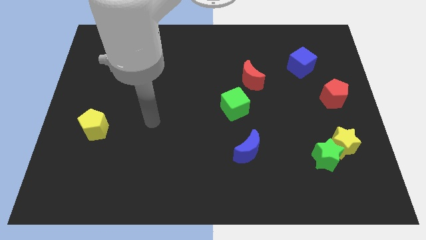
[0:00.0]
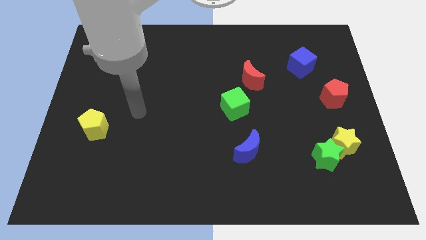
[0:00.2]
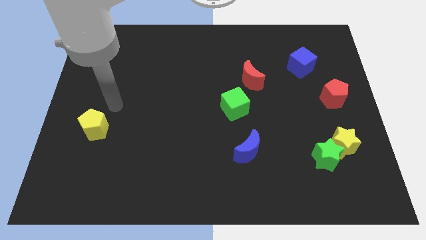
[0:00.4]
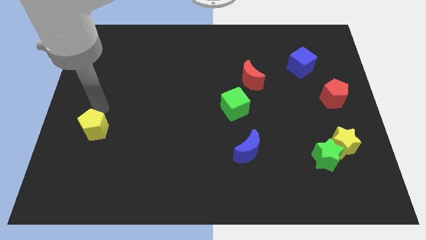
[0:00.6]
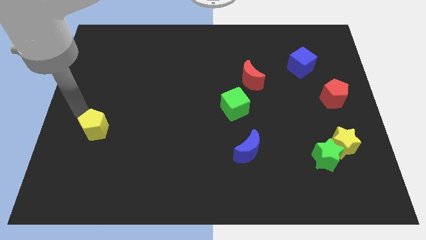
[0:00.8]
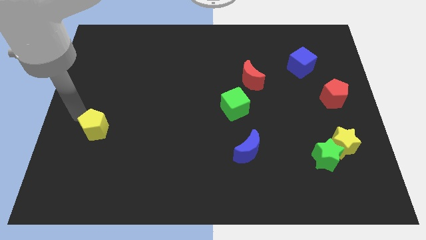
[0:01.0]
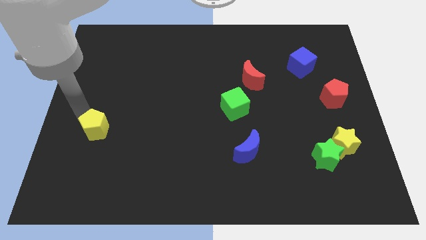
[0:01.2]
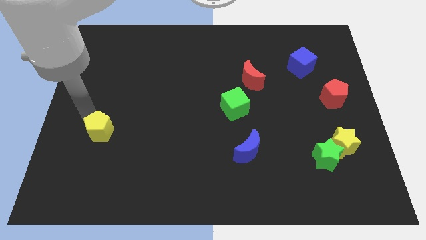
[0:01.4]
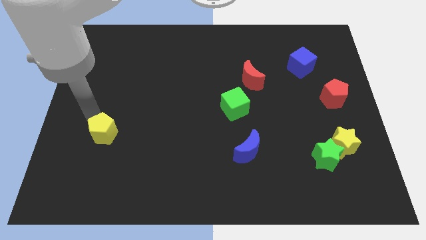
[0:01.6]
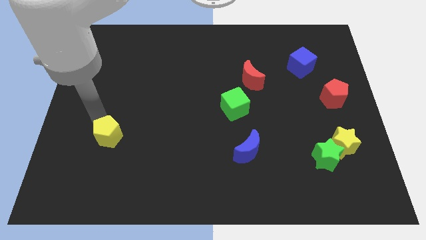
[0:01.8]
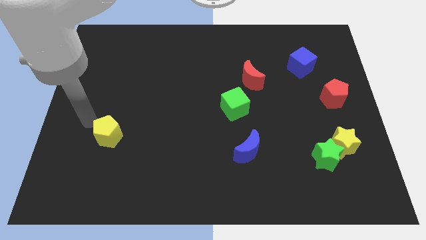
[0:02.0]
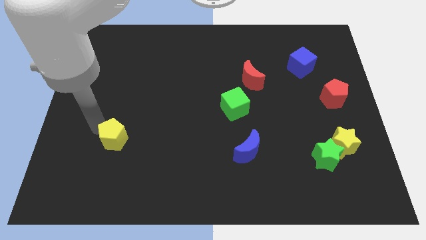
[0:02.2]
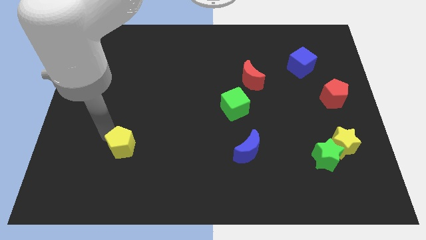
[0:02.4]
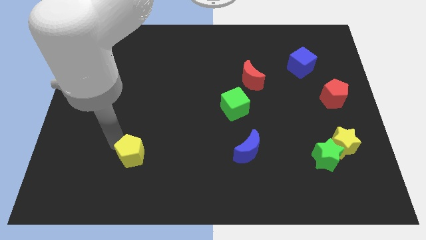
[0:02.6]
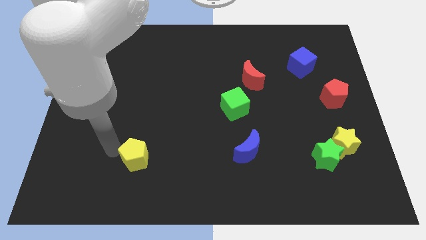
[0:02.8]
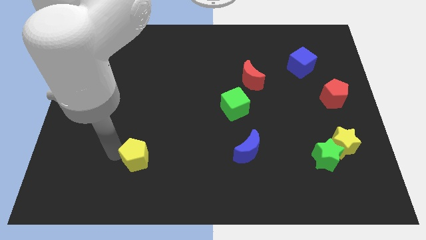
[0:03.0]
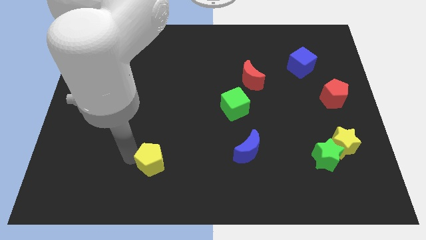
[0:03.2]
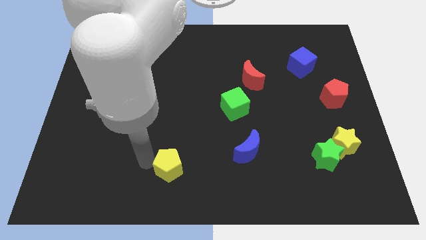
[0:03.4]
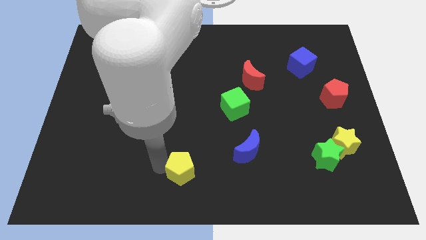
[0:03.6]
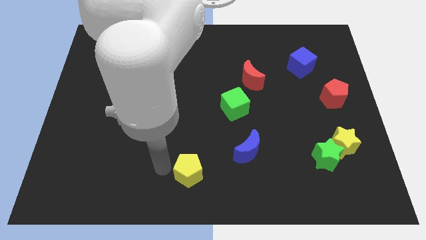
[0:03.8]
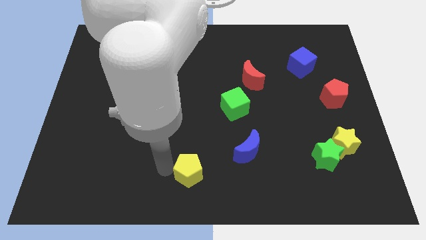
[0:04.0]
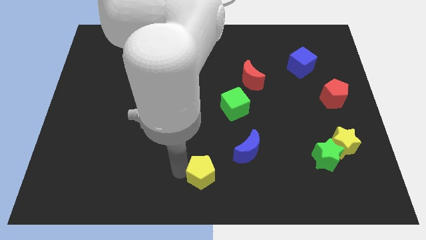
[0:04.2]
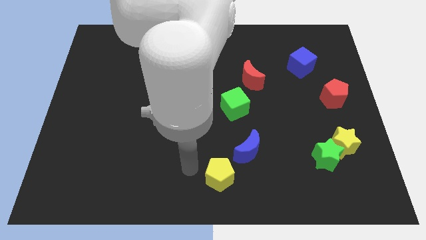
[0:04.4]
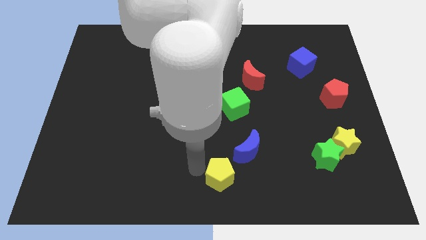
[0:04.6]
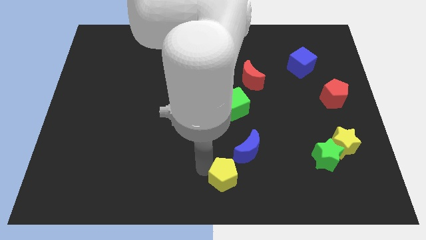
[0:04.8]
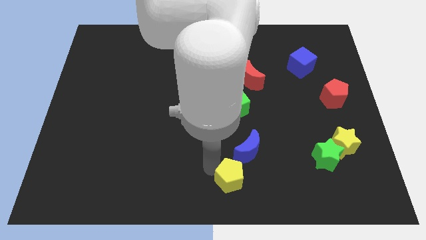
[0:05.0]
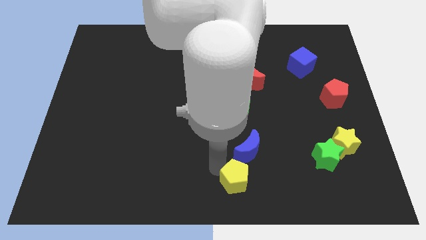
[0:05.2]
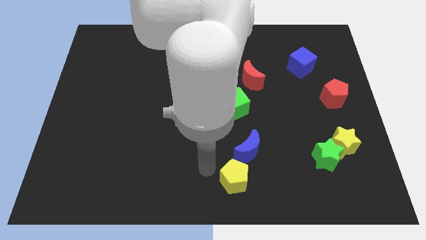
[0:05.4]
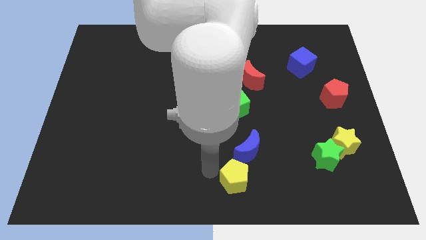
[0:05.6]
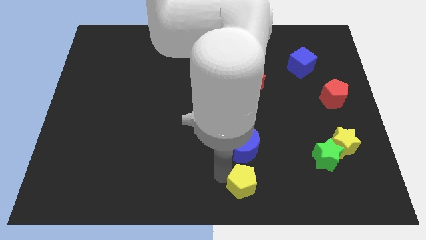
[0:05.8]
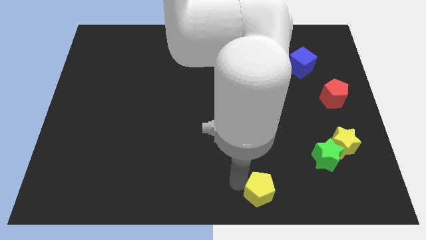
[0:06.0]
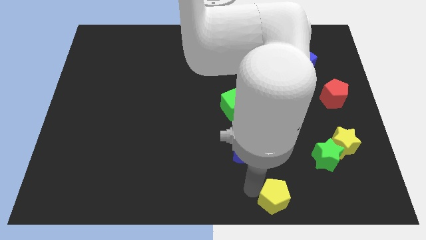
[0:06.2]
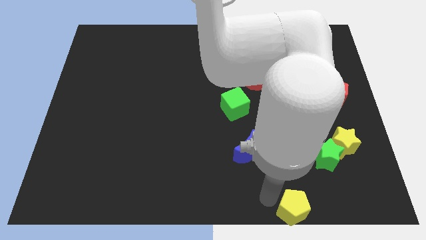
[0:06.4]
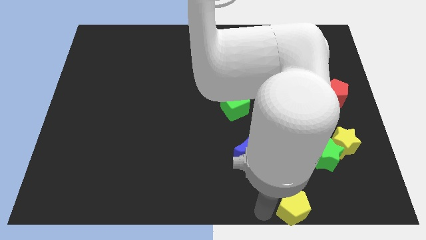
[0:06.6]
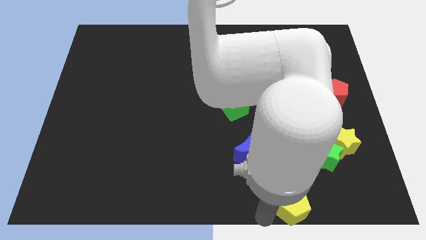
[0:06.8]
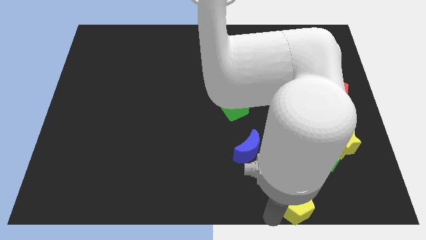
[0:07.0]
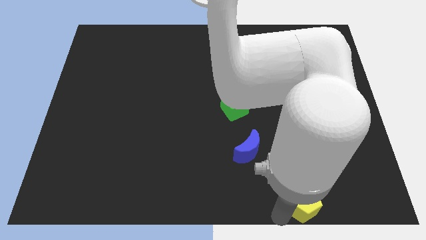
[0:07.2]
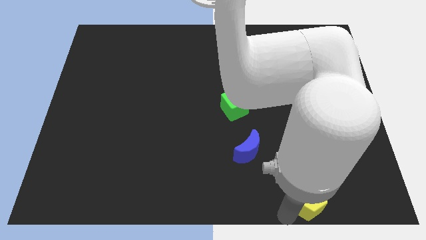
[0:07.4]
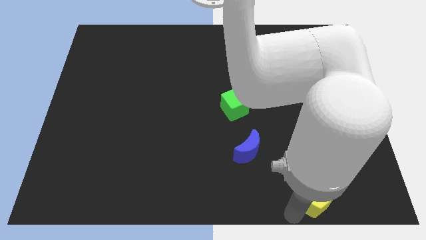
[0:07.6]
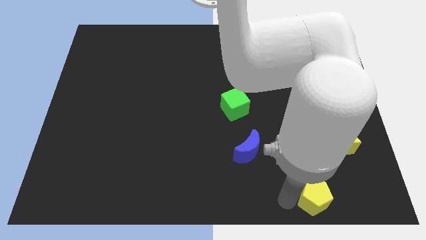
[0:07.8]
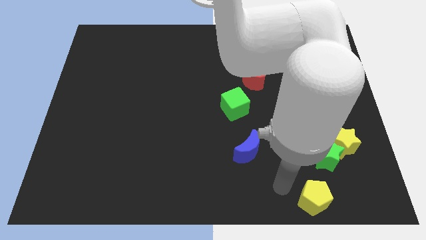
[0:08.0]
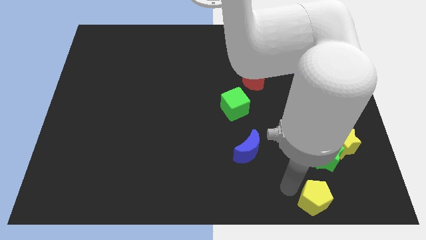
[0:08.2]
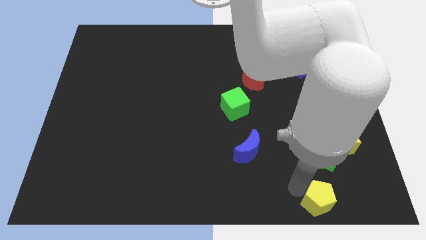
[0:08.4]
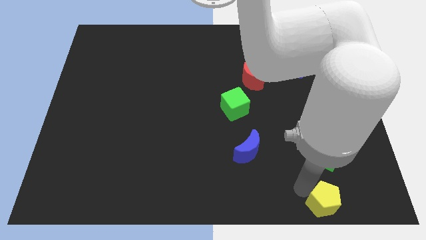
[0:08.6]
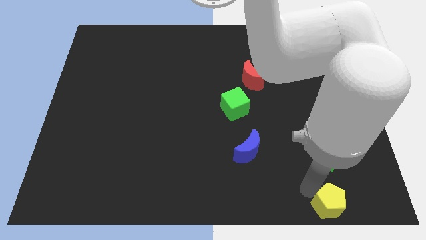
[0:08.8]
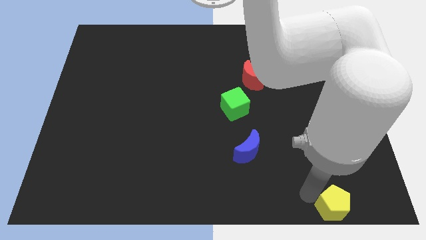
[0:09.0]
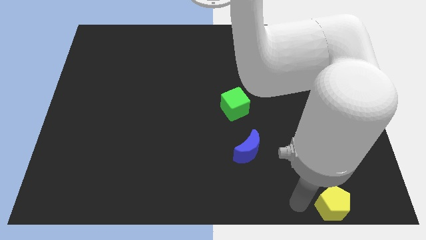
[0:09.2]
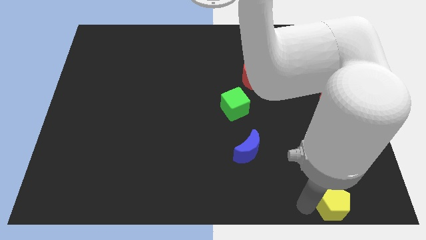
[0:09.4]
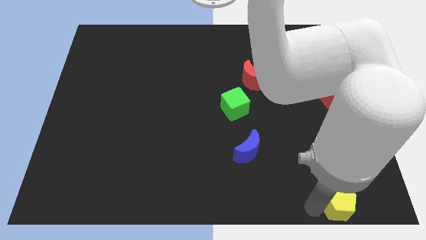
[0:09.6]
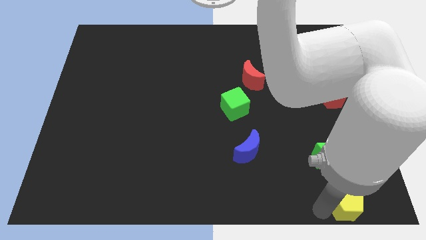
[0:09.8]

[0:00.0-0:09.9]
move the yellow pentagon to the bottom right corner

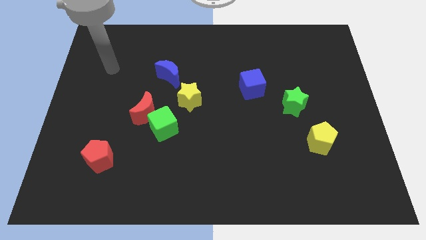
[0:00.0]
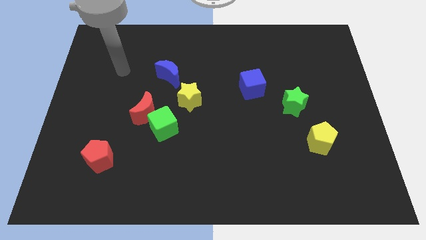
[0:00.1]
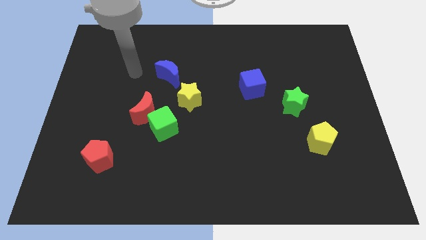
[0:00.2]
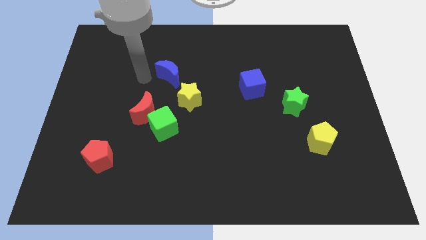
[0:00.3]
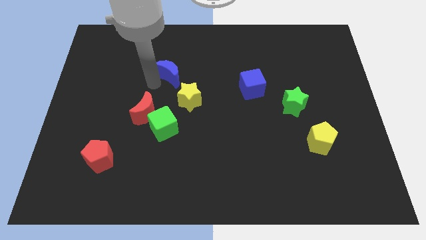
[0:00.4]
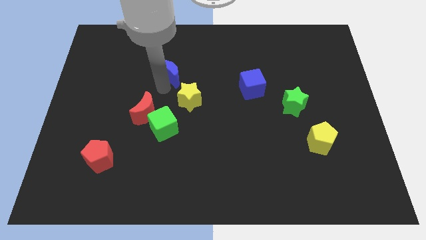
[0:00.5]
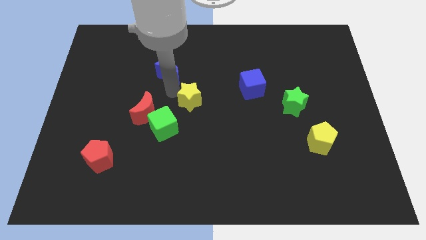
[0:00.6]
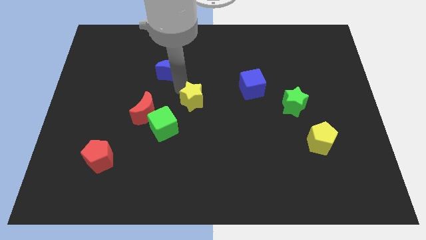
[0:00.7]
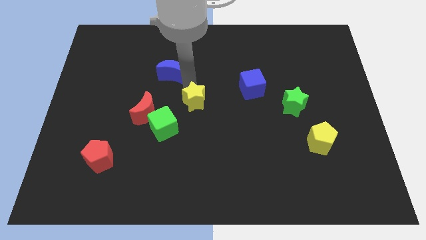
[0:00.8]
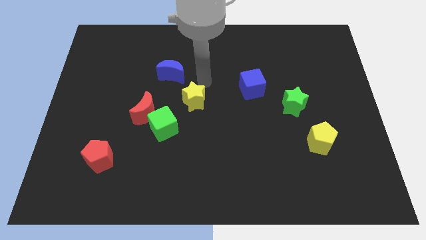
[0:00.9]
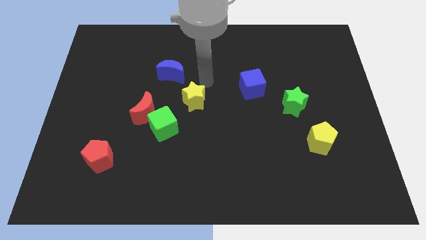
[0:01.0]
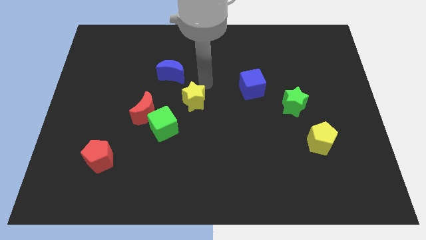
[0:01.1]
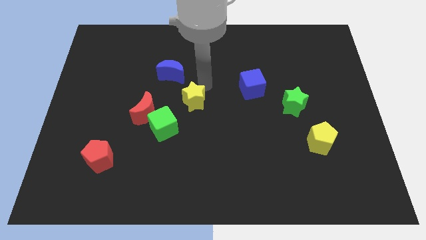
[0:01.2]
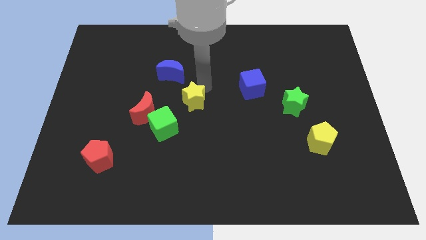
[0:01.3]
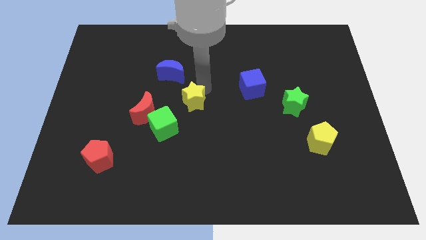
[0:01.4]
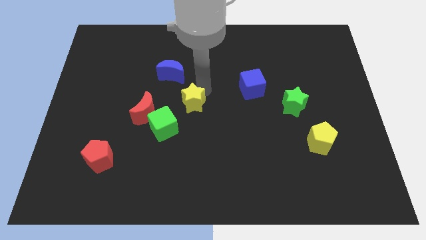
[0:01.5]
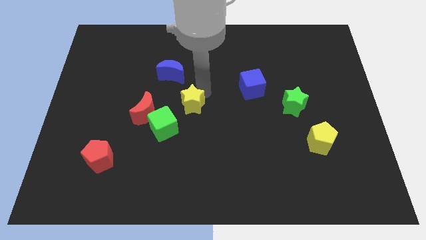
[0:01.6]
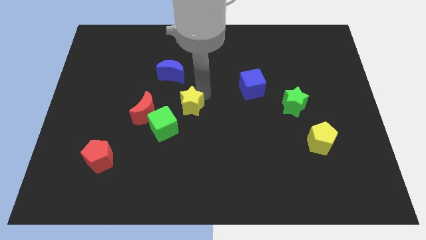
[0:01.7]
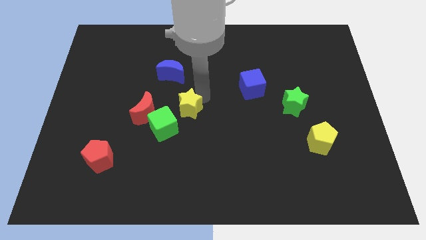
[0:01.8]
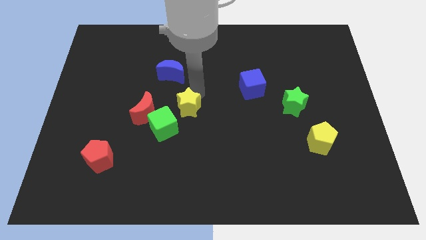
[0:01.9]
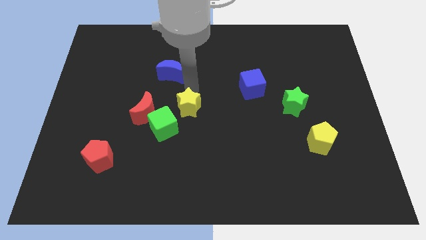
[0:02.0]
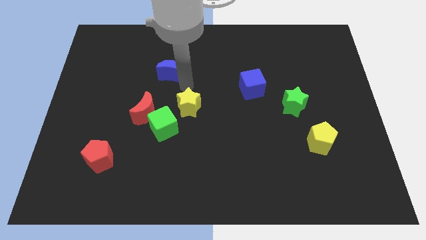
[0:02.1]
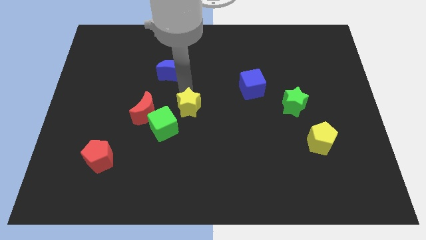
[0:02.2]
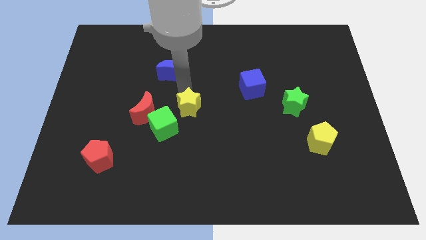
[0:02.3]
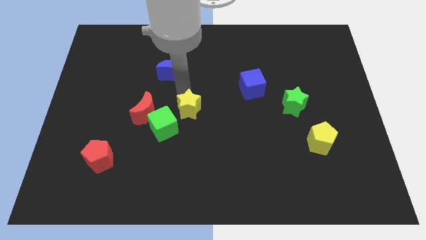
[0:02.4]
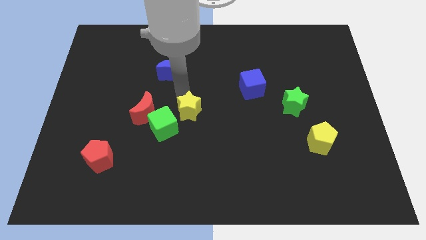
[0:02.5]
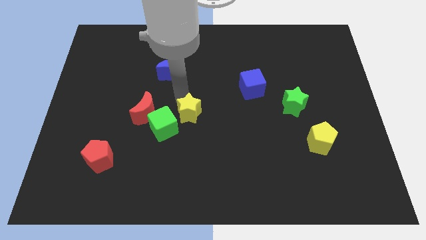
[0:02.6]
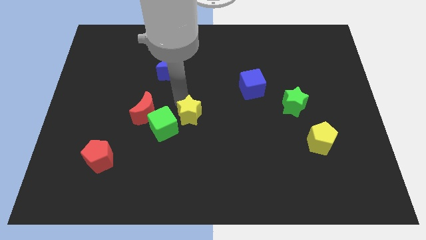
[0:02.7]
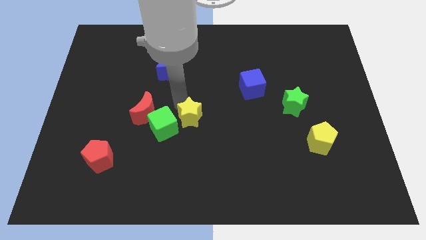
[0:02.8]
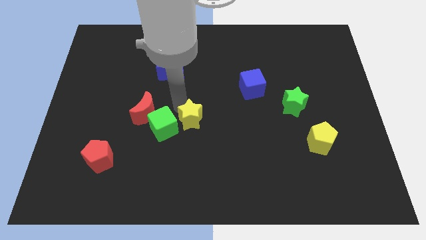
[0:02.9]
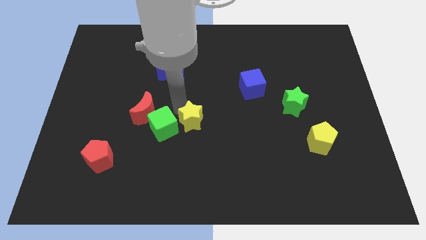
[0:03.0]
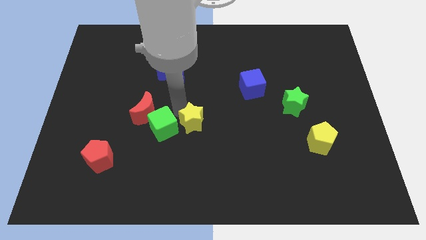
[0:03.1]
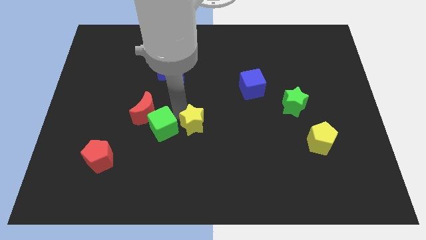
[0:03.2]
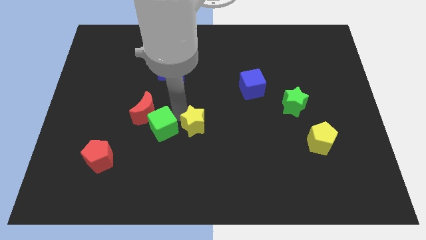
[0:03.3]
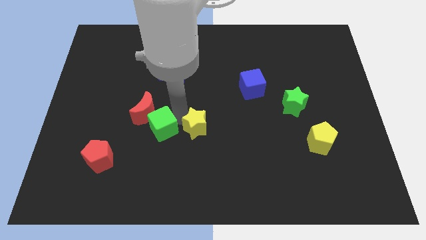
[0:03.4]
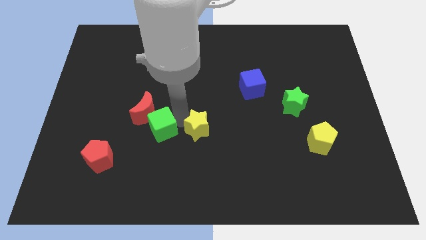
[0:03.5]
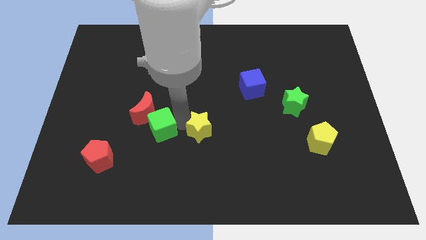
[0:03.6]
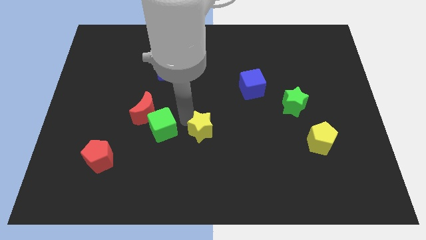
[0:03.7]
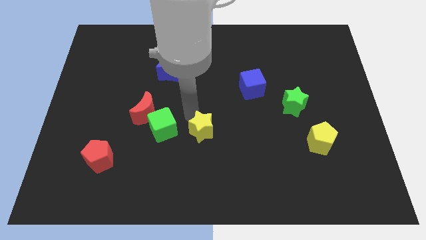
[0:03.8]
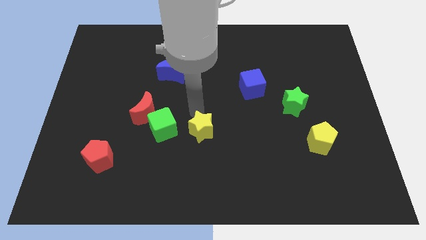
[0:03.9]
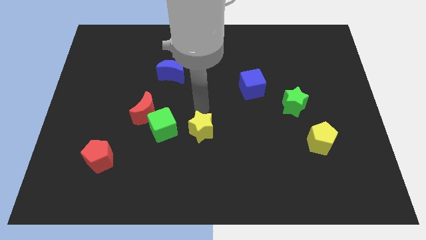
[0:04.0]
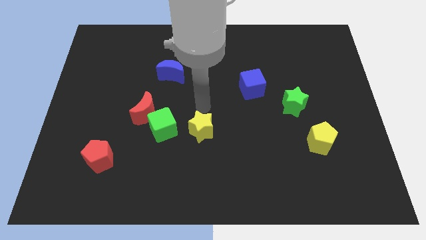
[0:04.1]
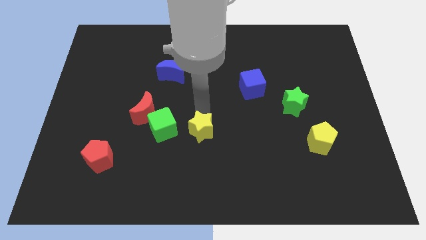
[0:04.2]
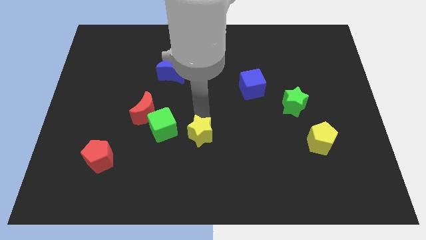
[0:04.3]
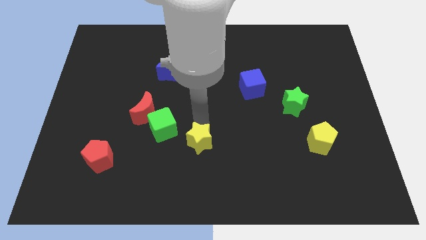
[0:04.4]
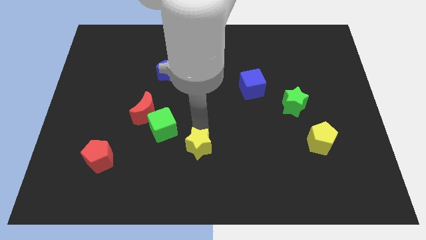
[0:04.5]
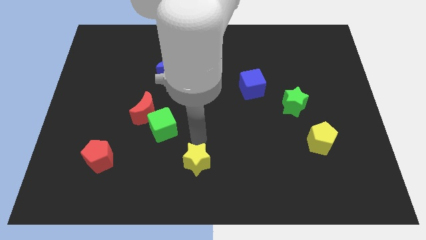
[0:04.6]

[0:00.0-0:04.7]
slide the yellow star to the bottom side
